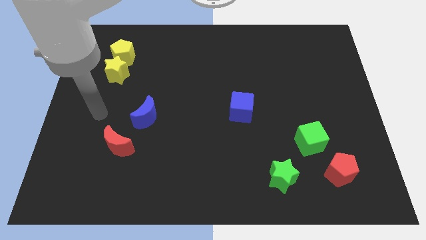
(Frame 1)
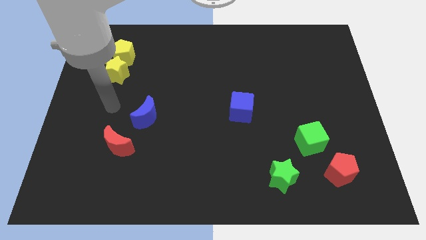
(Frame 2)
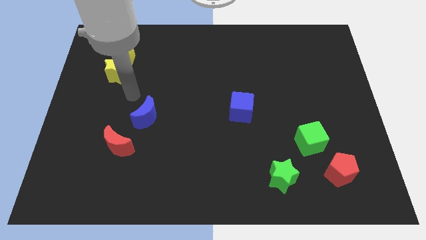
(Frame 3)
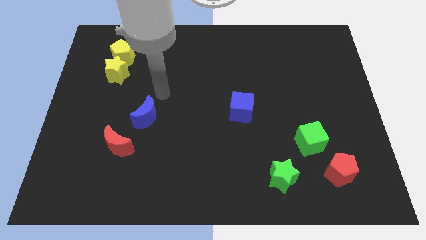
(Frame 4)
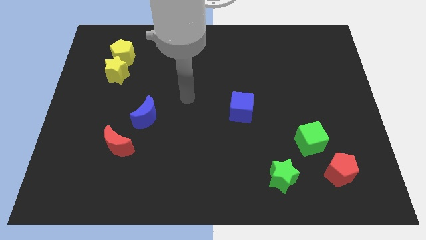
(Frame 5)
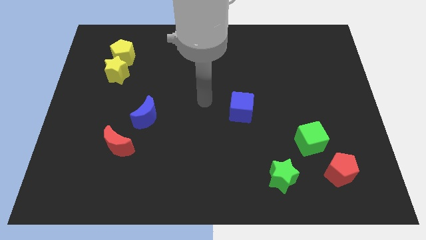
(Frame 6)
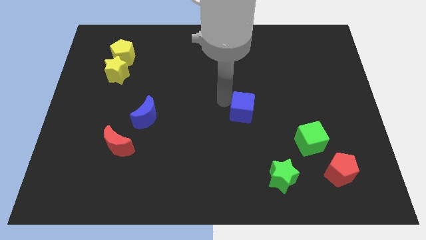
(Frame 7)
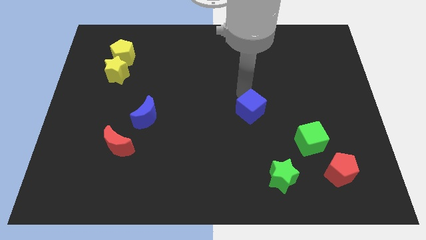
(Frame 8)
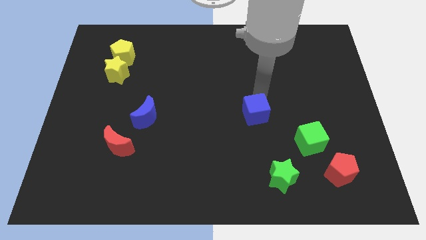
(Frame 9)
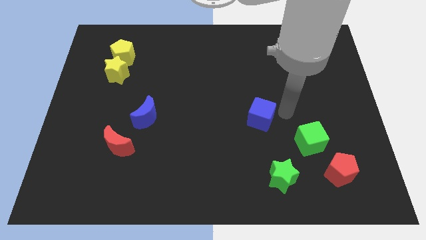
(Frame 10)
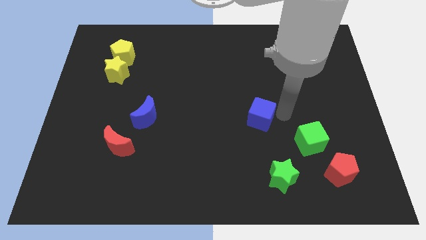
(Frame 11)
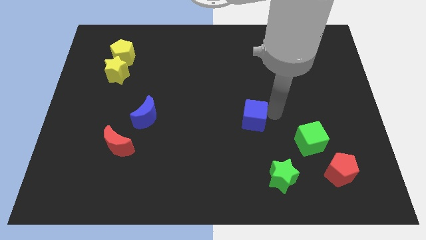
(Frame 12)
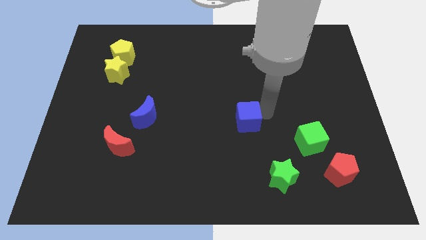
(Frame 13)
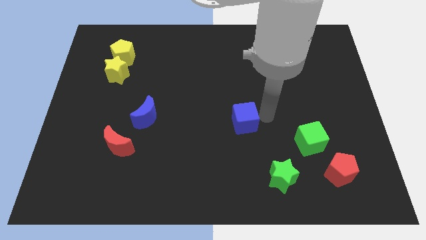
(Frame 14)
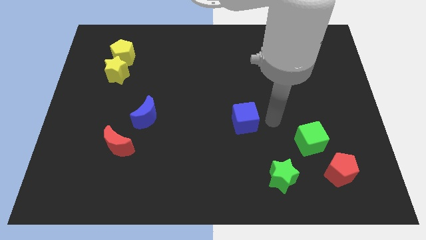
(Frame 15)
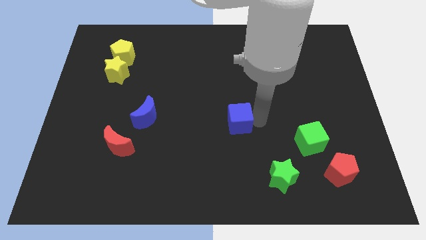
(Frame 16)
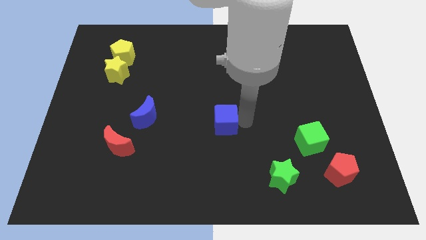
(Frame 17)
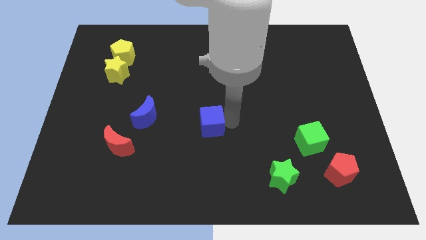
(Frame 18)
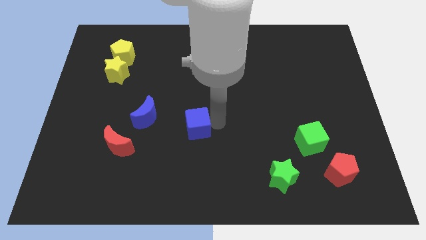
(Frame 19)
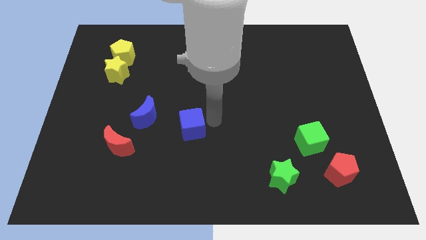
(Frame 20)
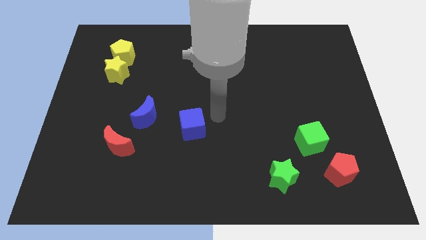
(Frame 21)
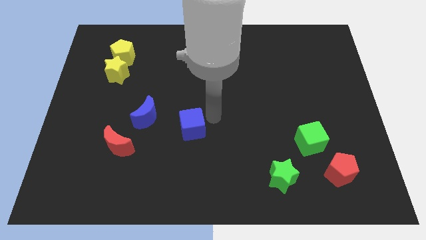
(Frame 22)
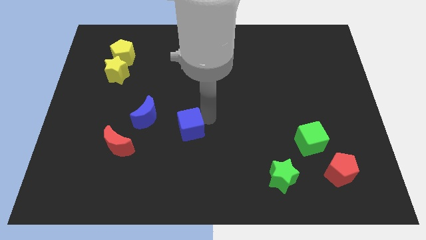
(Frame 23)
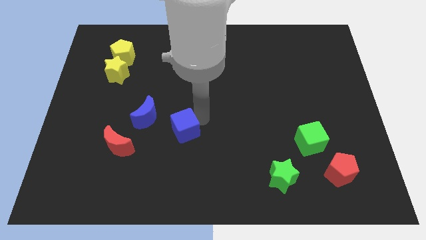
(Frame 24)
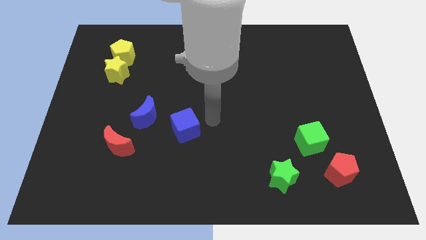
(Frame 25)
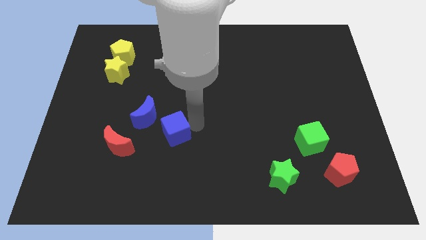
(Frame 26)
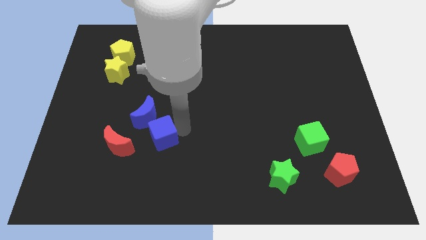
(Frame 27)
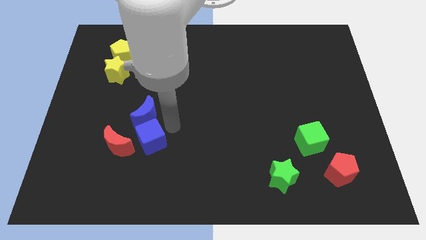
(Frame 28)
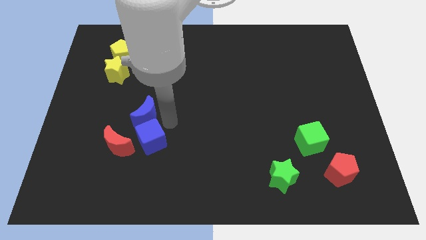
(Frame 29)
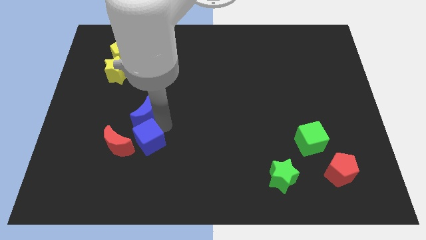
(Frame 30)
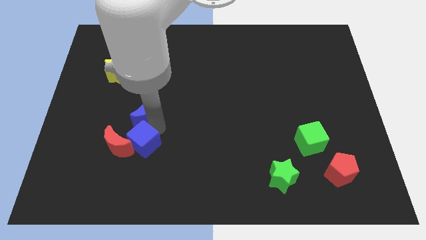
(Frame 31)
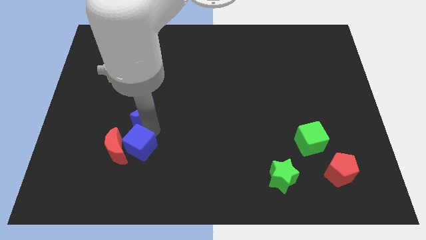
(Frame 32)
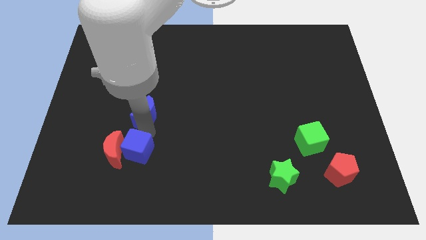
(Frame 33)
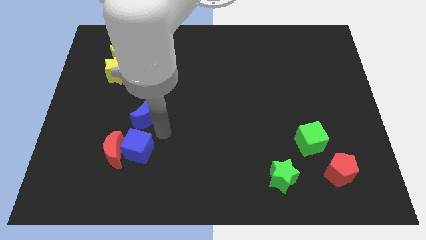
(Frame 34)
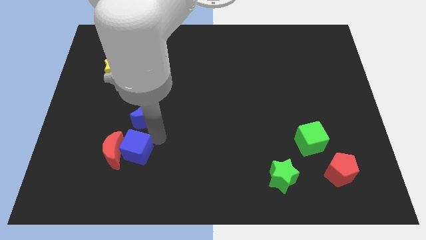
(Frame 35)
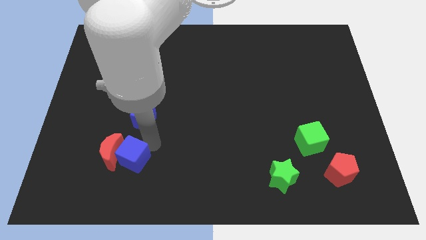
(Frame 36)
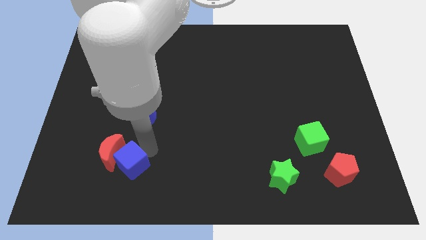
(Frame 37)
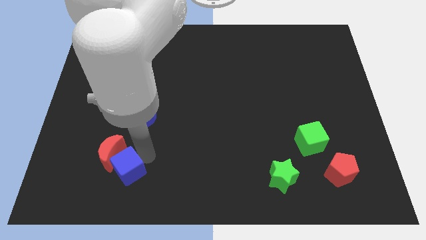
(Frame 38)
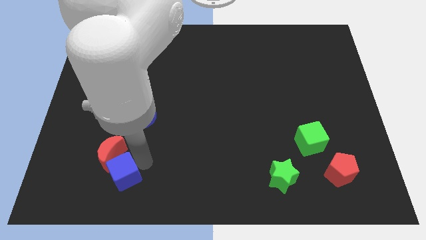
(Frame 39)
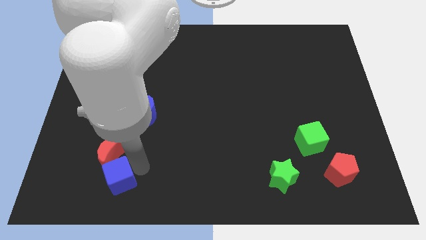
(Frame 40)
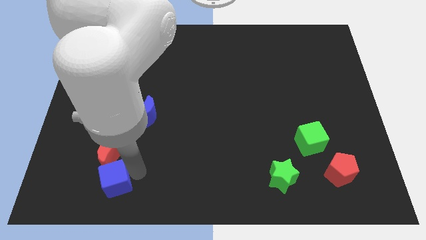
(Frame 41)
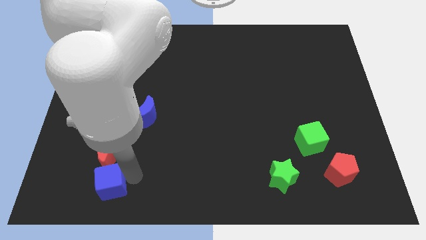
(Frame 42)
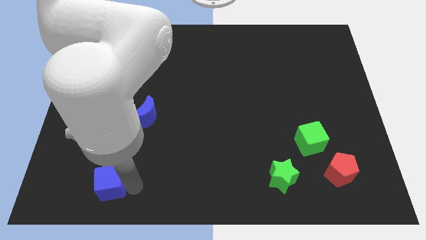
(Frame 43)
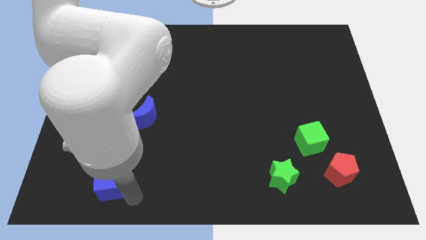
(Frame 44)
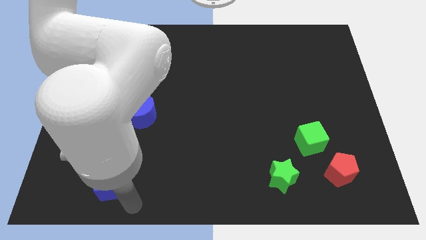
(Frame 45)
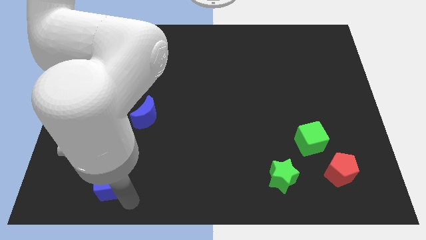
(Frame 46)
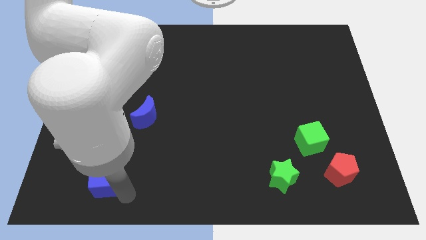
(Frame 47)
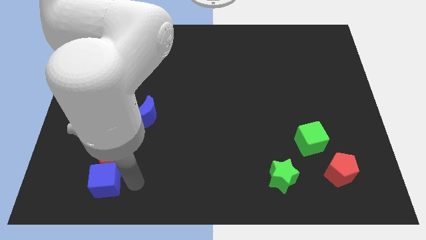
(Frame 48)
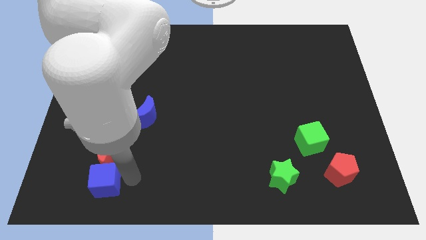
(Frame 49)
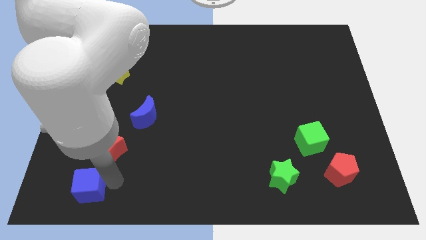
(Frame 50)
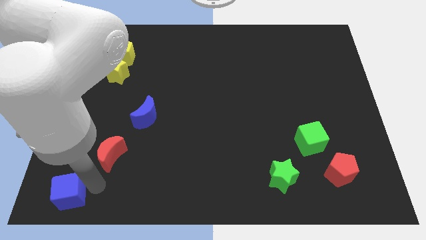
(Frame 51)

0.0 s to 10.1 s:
slide the blue cube to the bottom left of the board

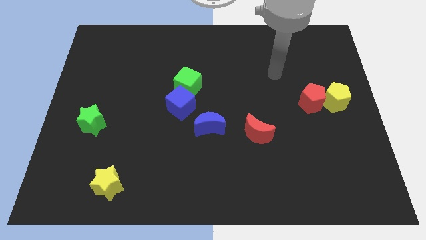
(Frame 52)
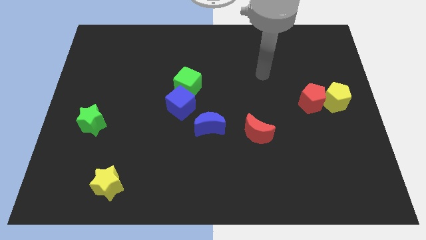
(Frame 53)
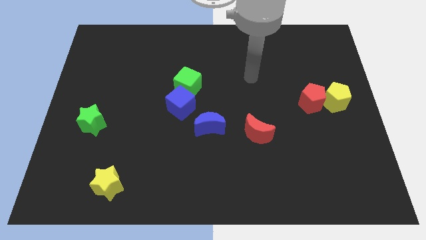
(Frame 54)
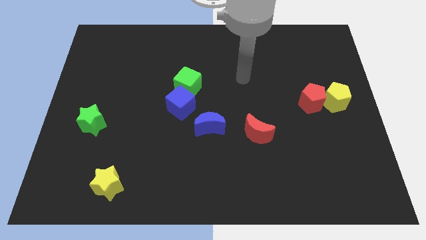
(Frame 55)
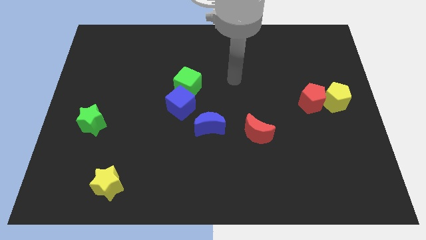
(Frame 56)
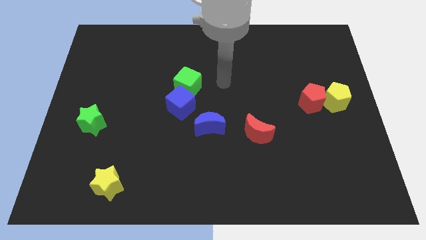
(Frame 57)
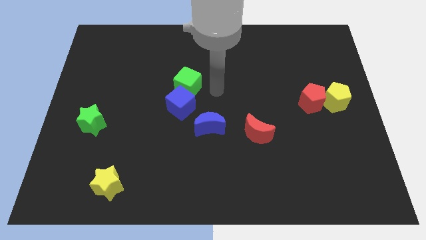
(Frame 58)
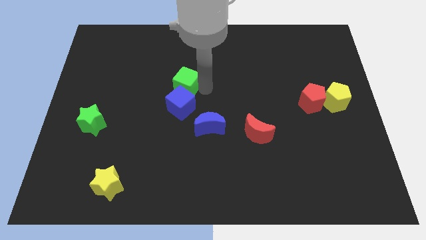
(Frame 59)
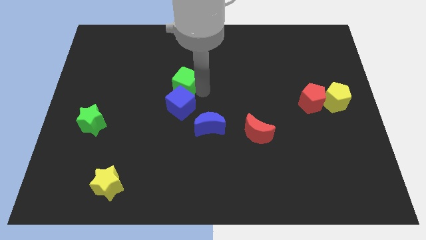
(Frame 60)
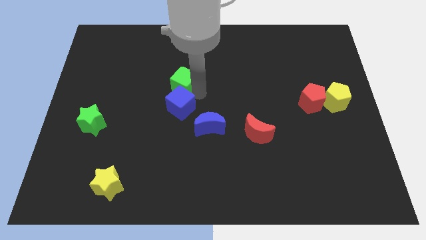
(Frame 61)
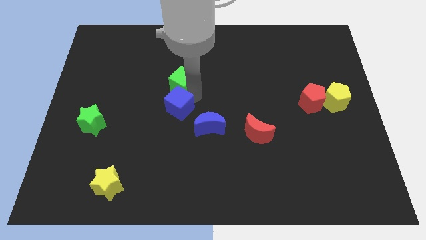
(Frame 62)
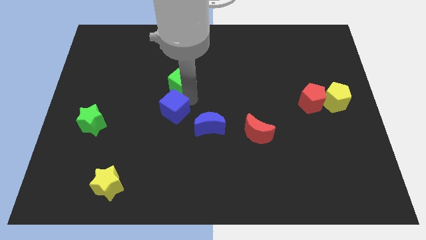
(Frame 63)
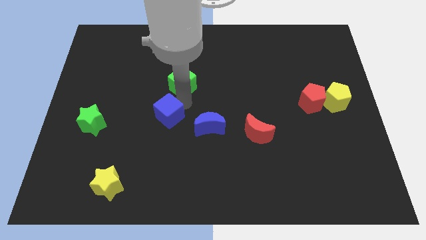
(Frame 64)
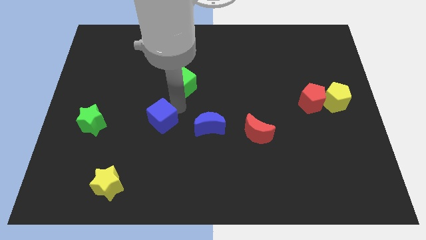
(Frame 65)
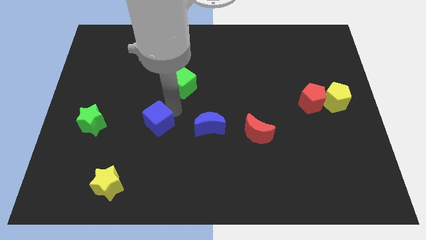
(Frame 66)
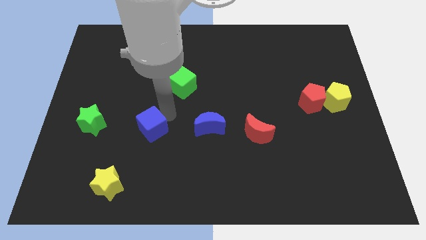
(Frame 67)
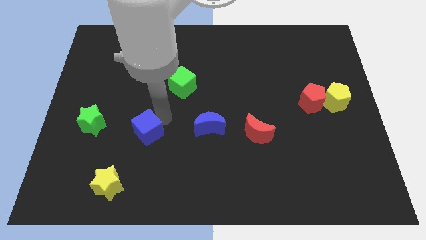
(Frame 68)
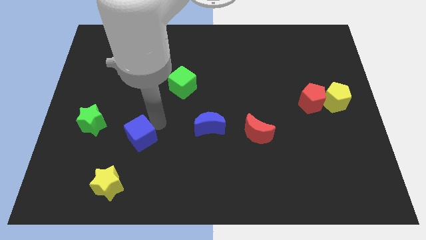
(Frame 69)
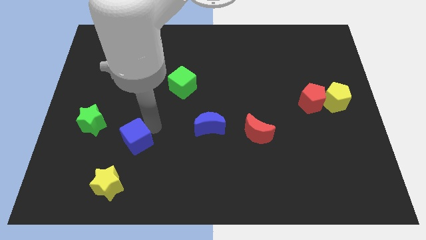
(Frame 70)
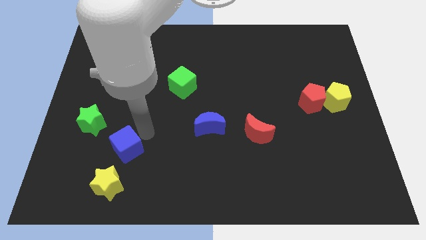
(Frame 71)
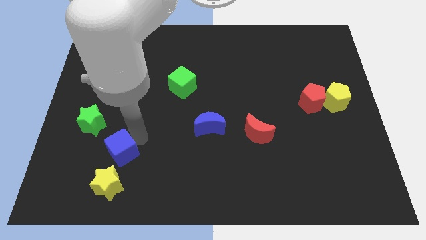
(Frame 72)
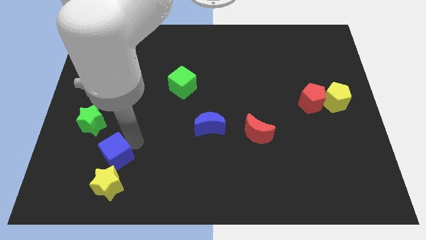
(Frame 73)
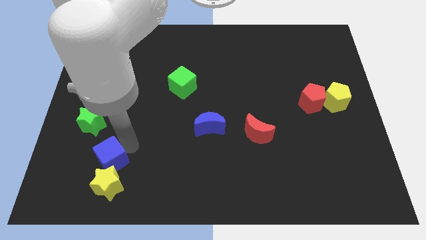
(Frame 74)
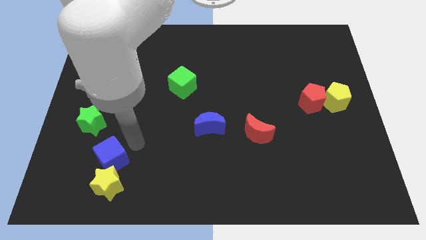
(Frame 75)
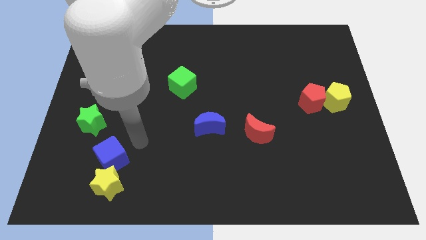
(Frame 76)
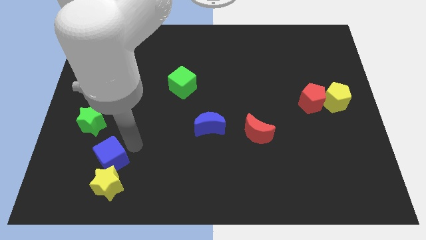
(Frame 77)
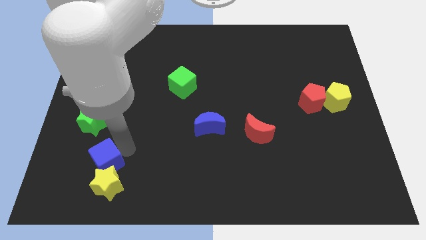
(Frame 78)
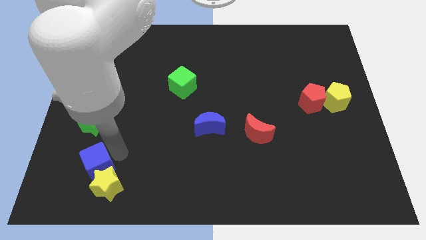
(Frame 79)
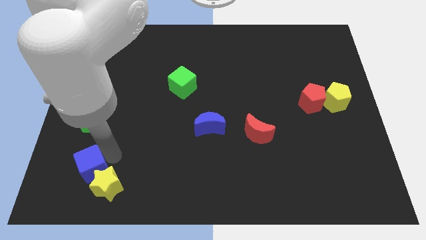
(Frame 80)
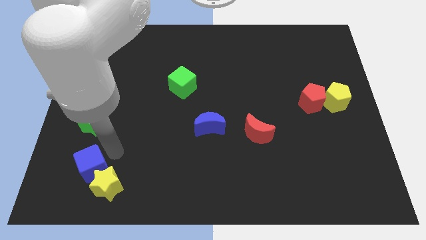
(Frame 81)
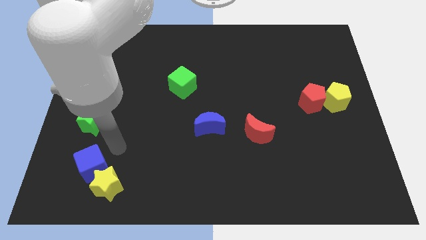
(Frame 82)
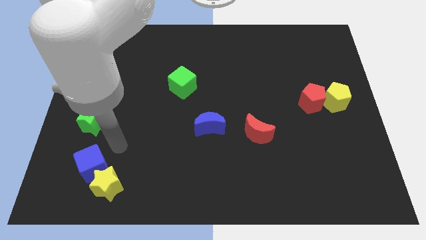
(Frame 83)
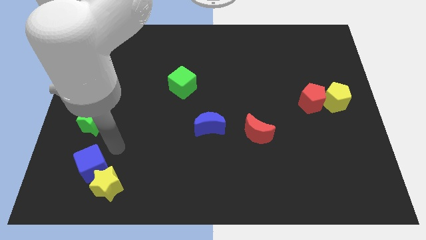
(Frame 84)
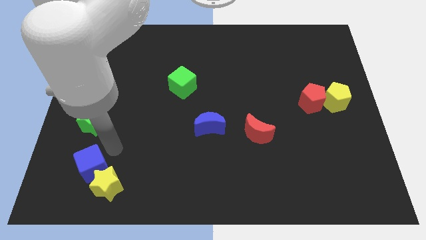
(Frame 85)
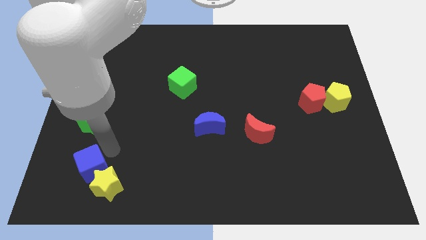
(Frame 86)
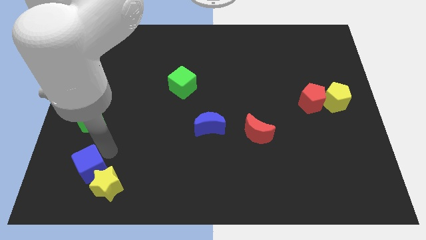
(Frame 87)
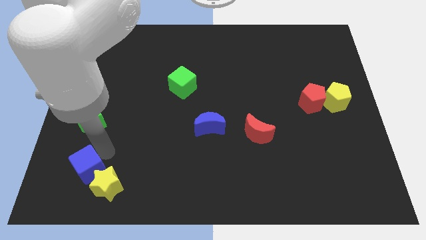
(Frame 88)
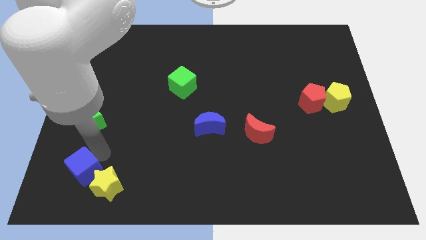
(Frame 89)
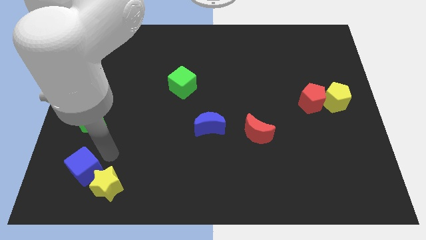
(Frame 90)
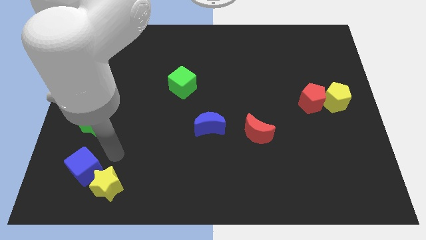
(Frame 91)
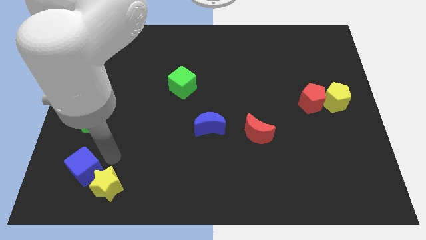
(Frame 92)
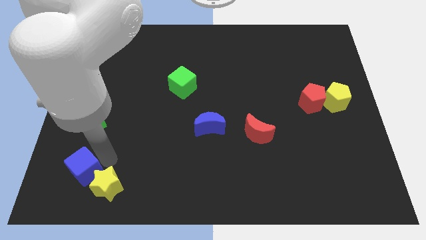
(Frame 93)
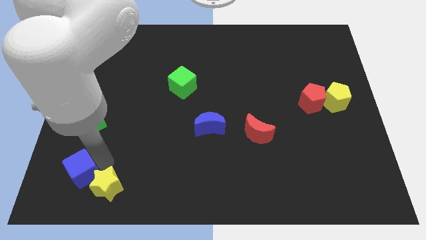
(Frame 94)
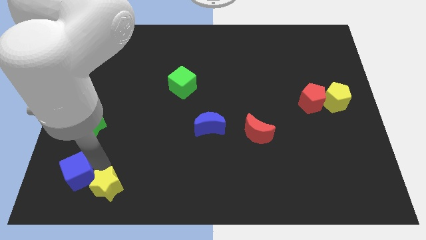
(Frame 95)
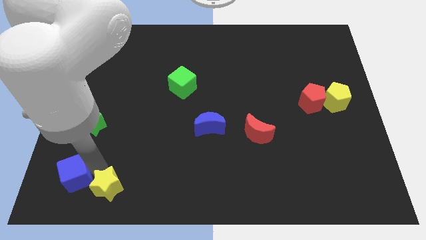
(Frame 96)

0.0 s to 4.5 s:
push the blue cube to the bottom left corner
